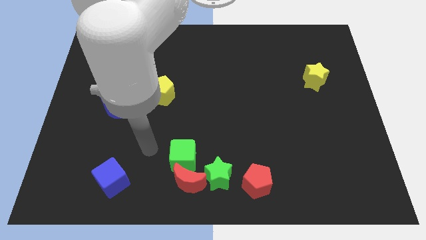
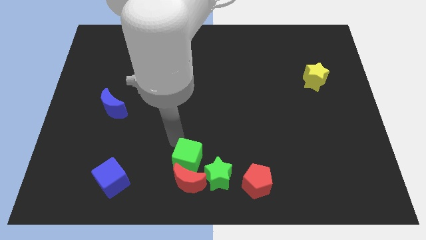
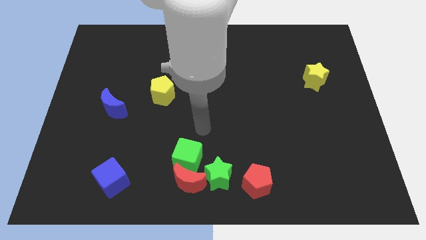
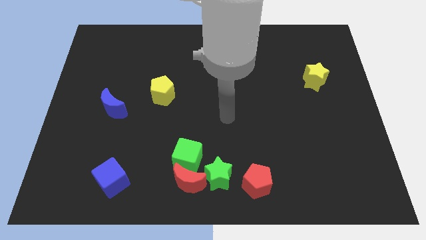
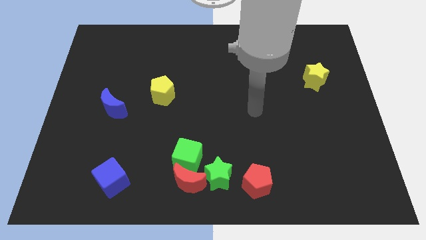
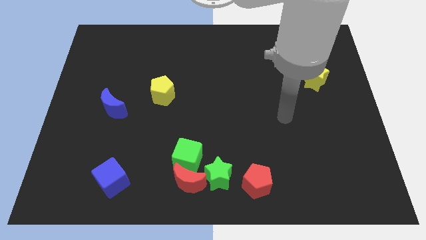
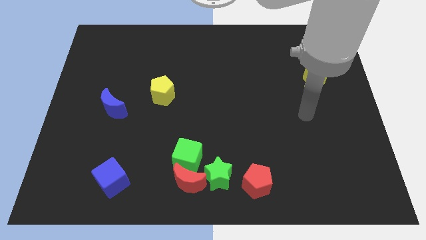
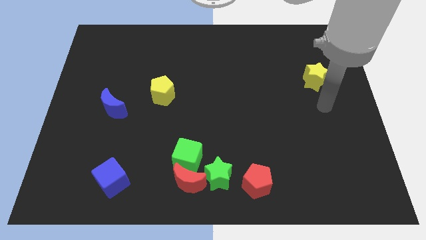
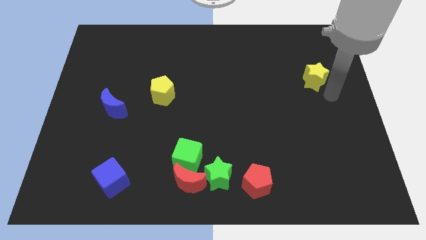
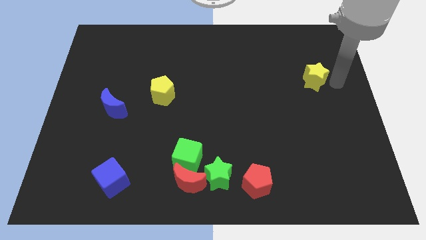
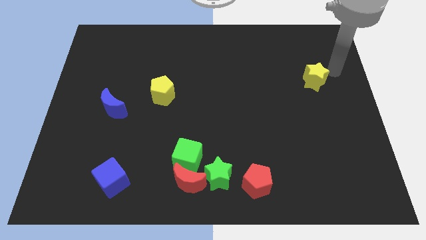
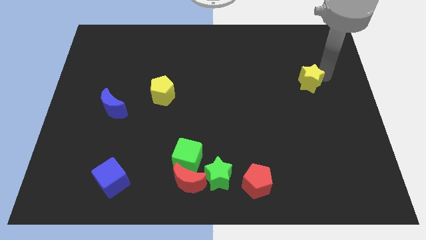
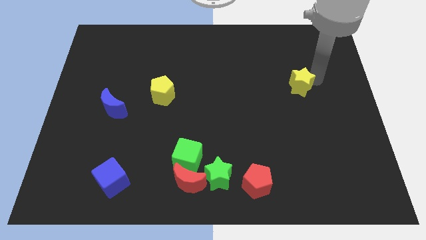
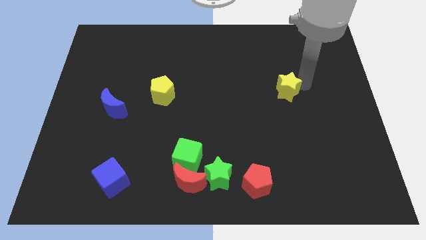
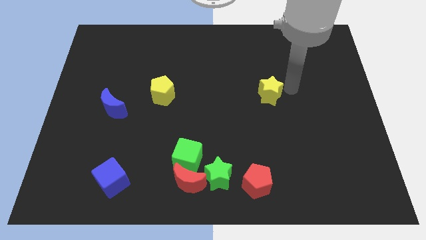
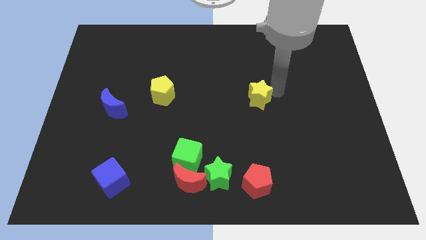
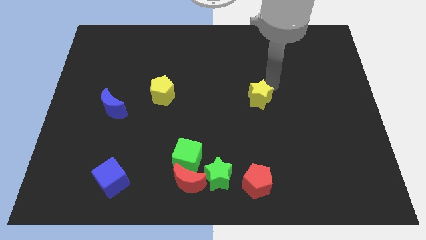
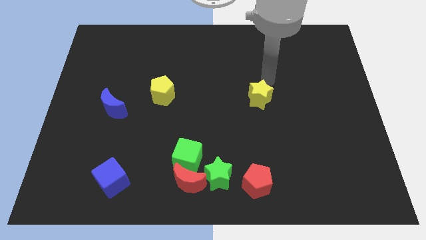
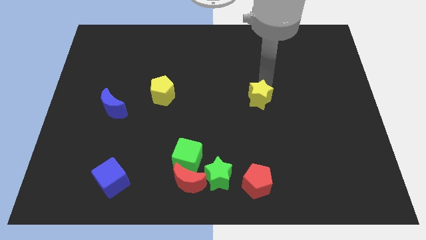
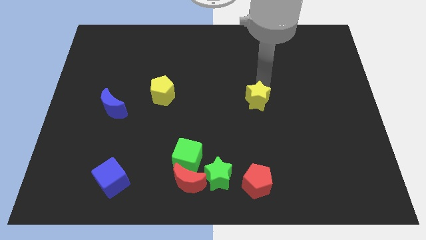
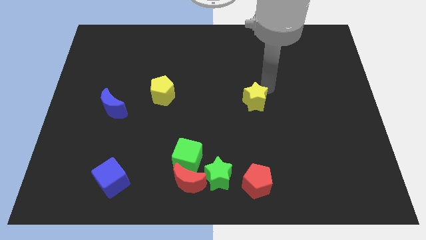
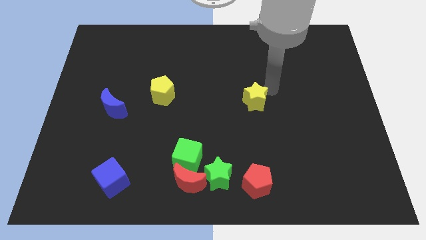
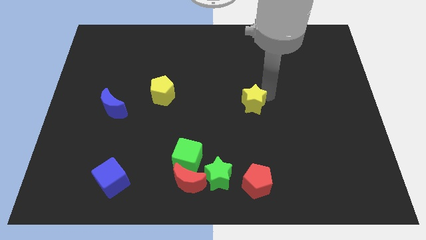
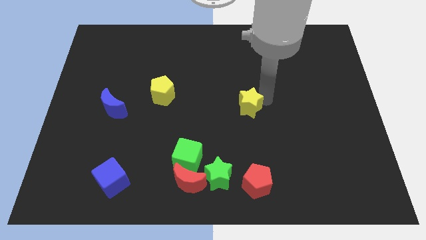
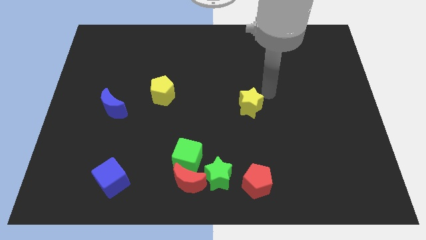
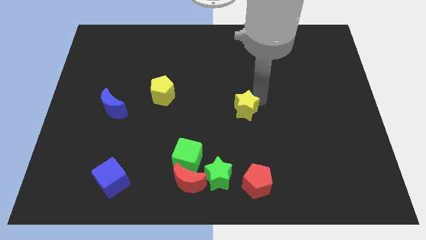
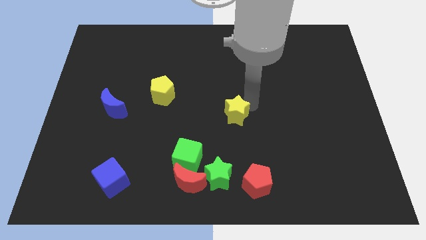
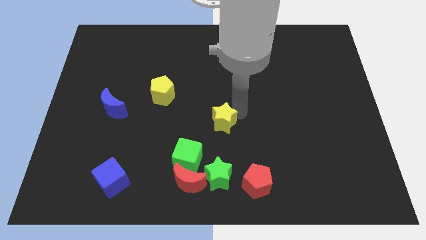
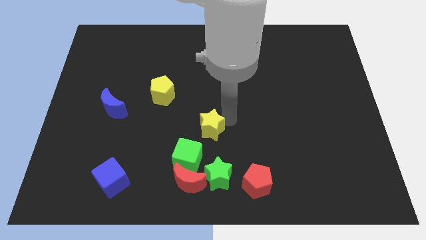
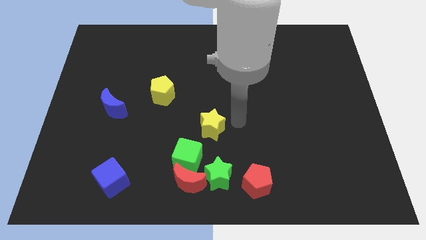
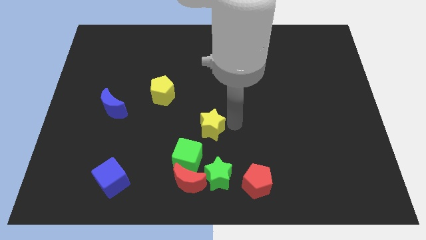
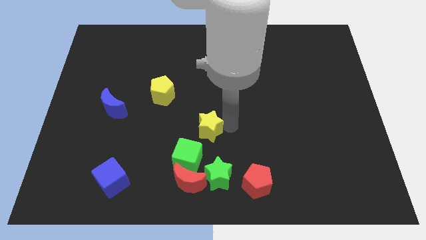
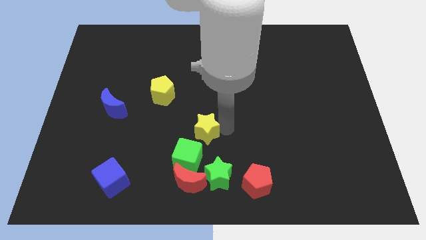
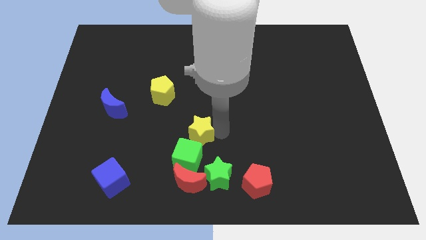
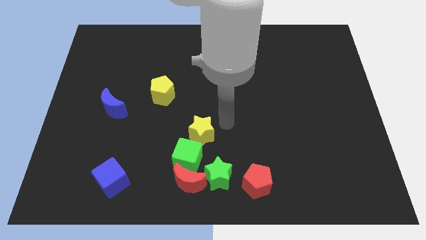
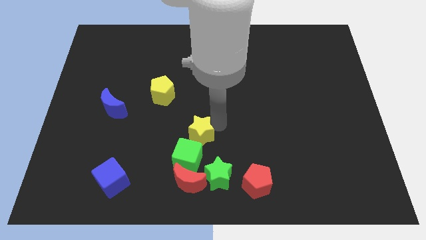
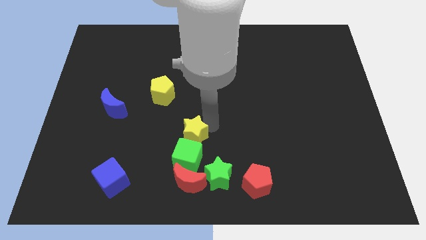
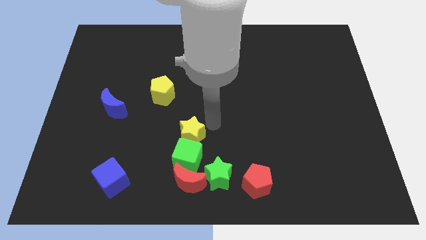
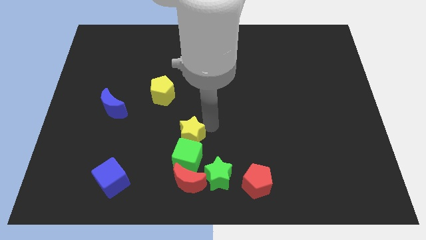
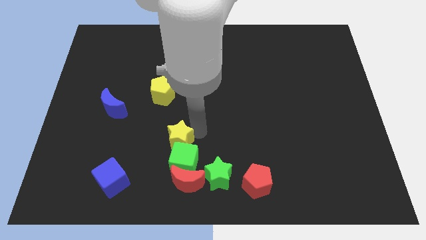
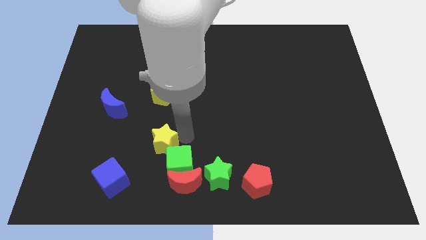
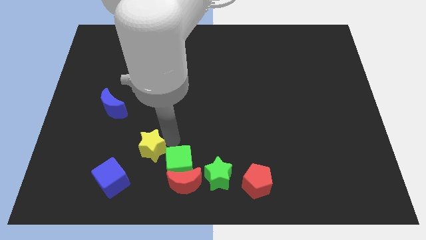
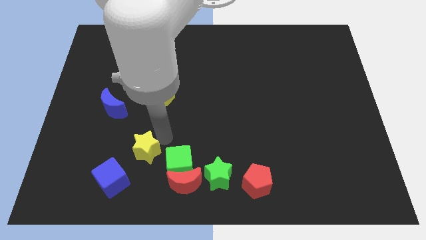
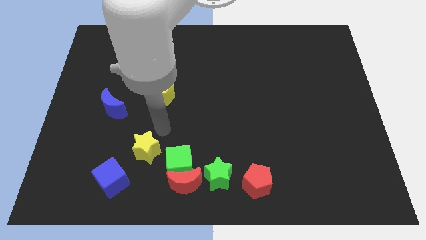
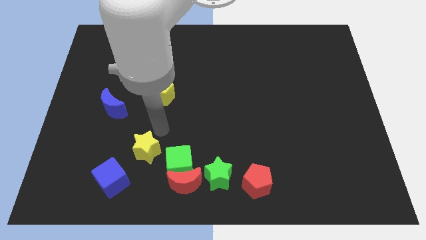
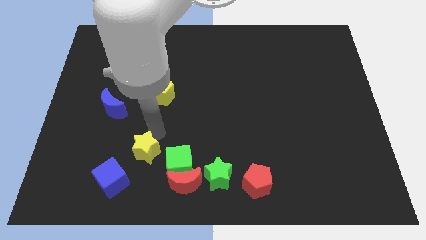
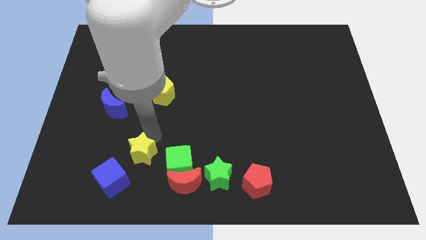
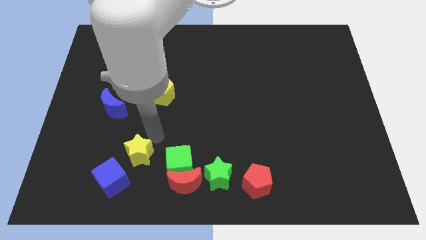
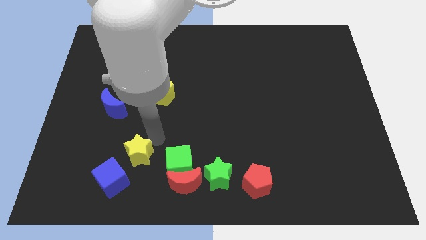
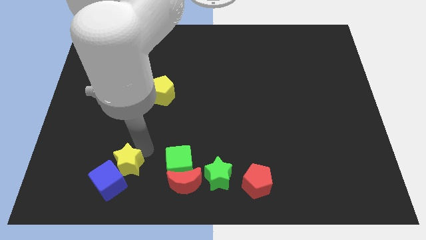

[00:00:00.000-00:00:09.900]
move the yellow star next to the blue cube

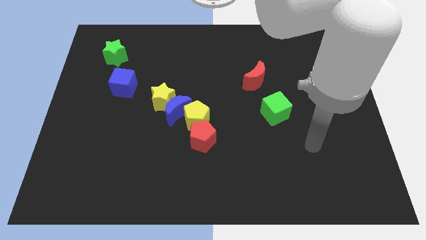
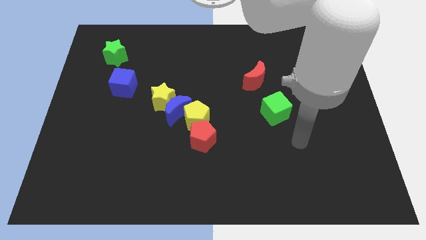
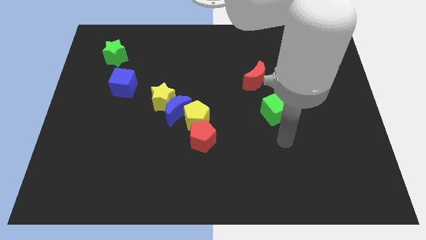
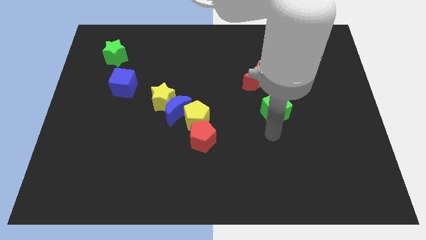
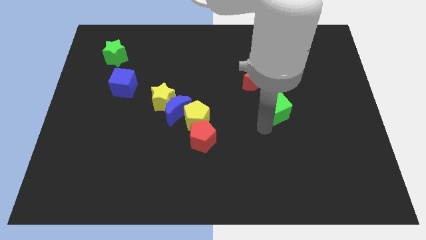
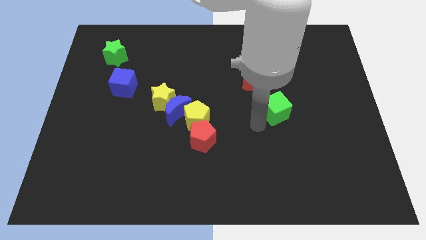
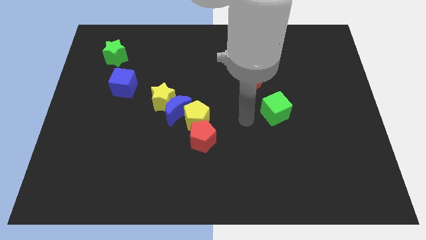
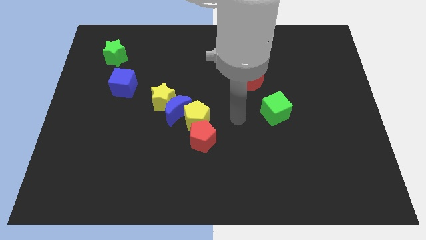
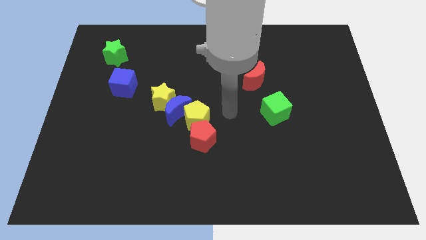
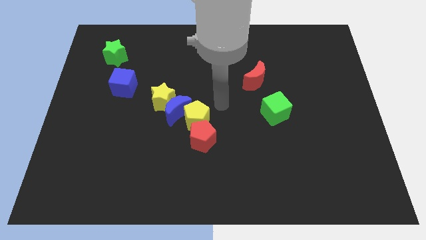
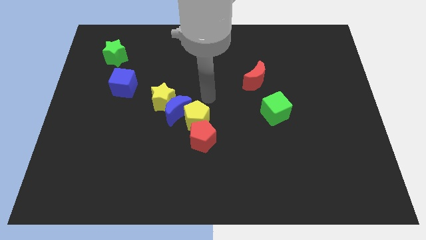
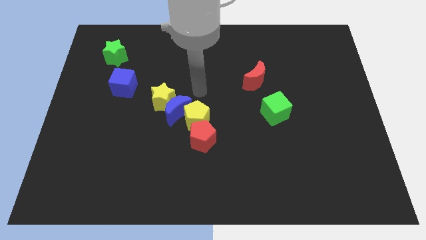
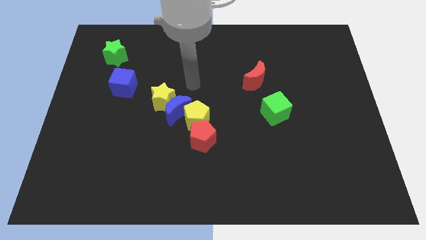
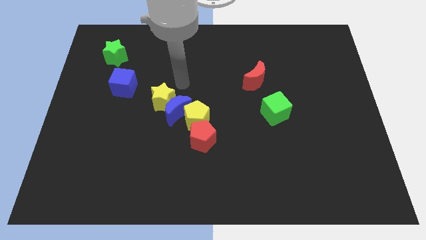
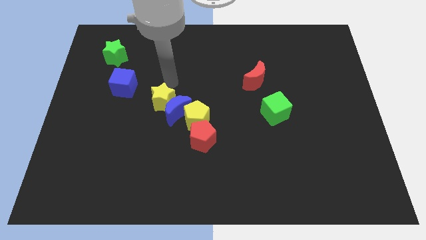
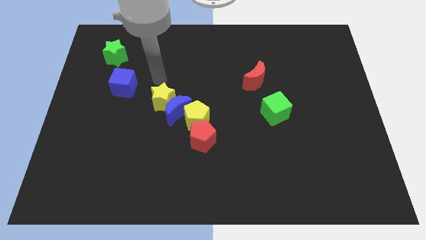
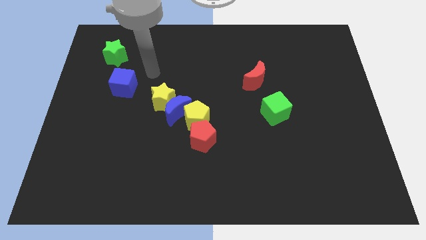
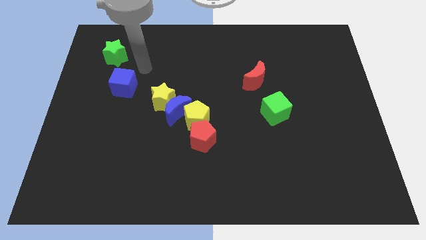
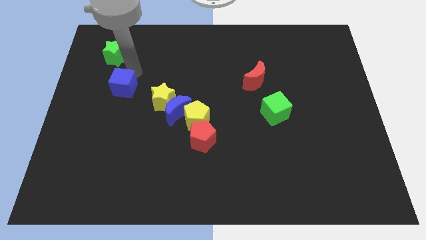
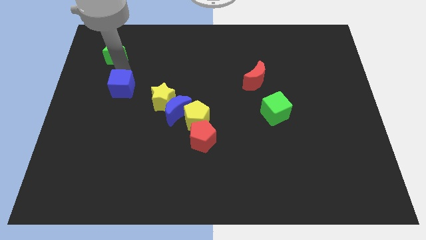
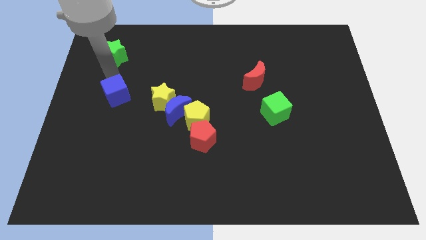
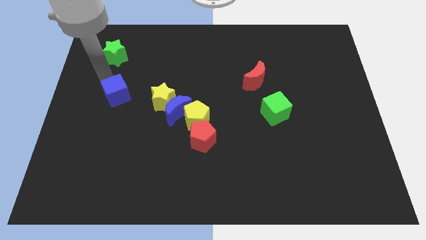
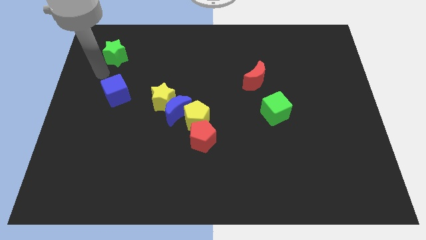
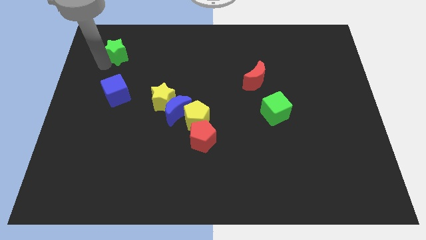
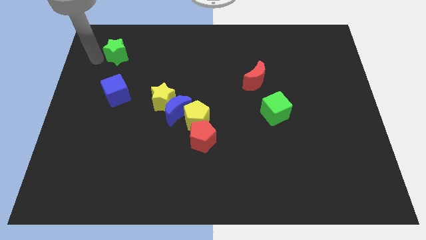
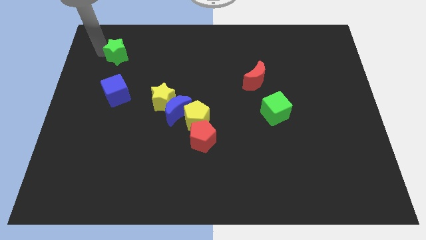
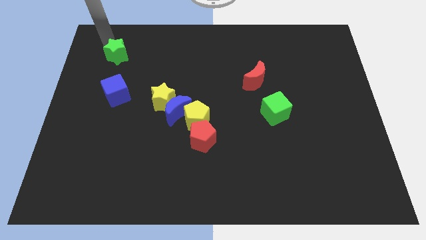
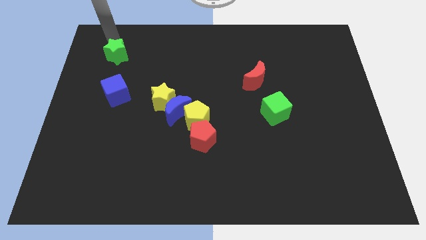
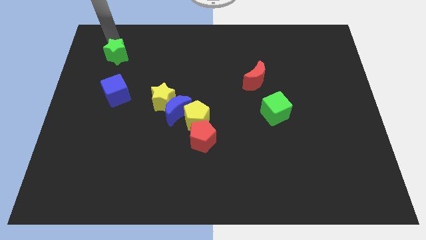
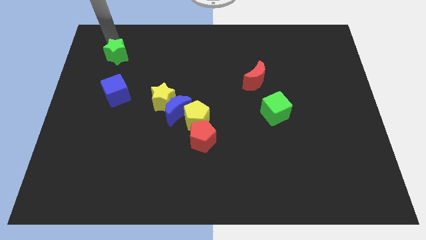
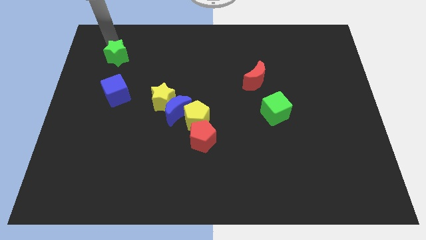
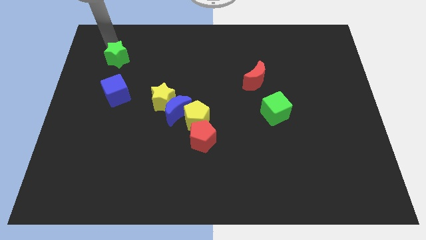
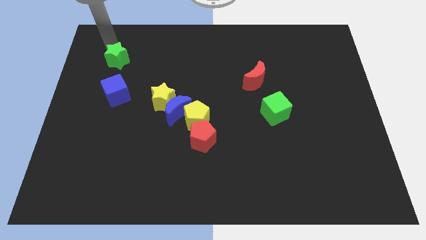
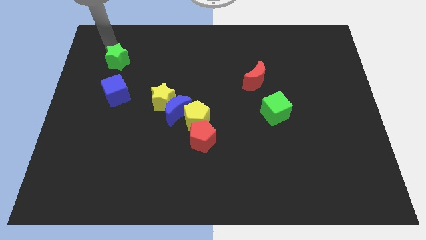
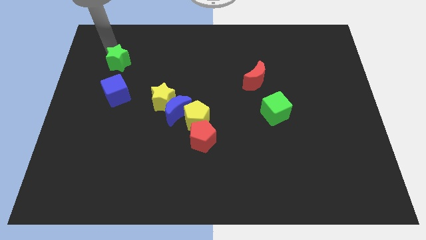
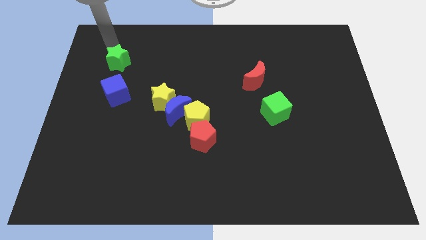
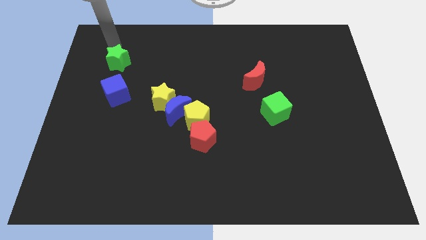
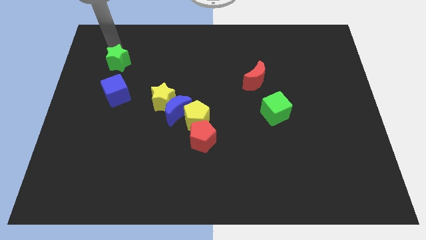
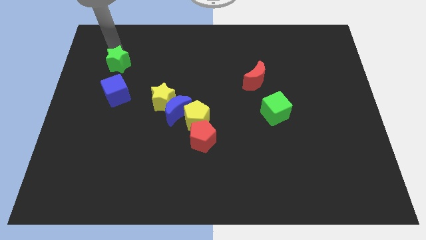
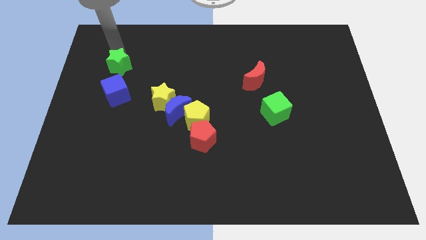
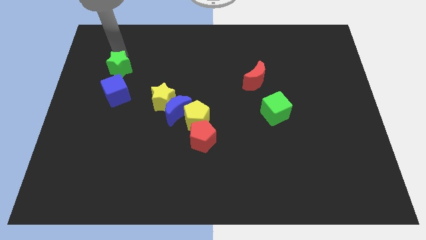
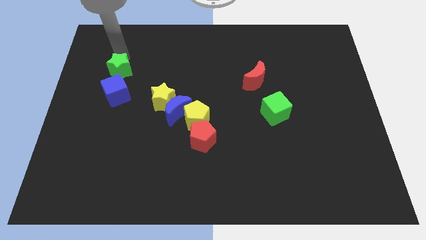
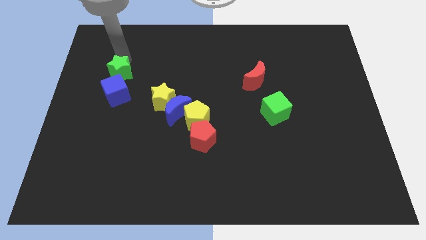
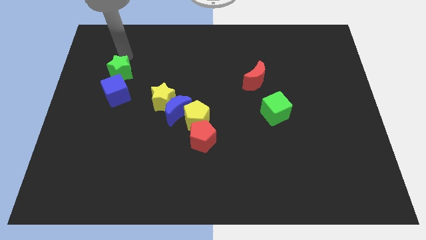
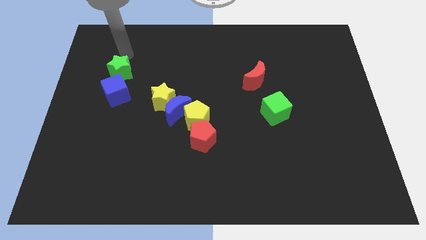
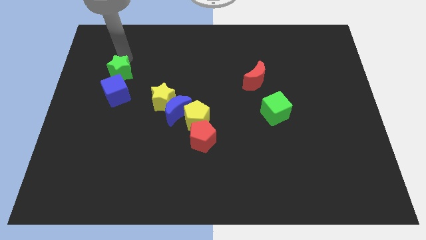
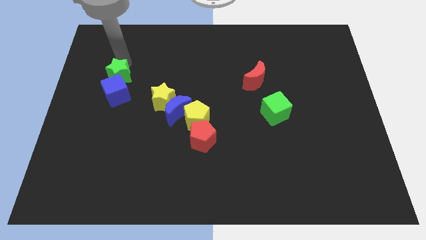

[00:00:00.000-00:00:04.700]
move the green star to the blue cube
